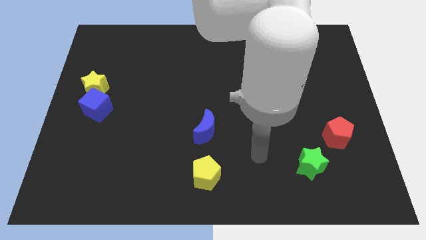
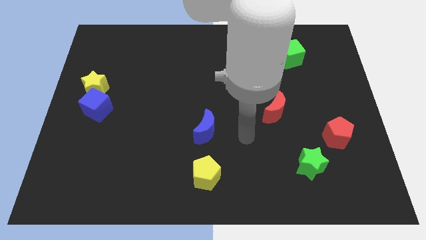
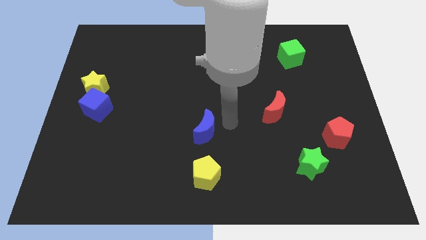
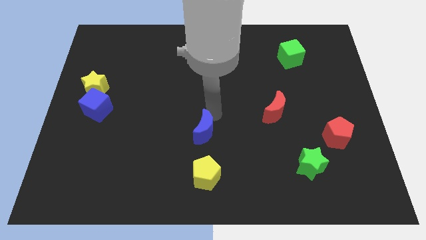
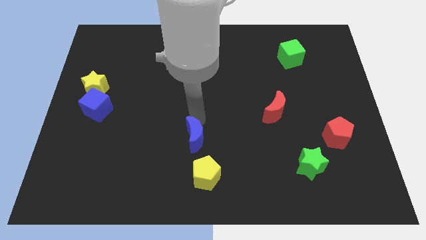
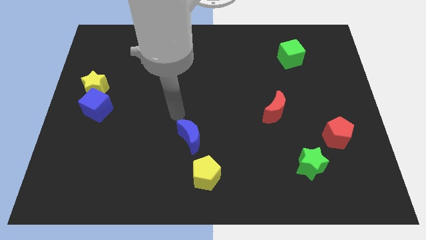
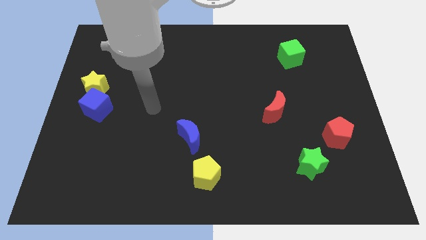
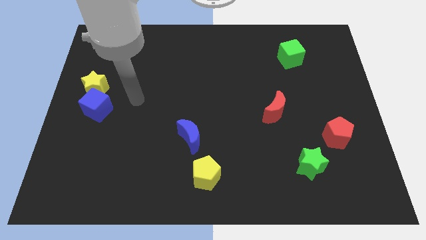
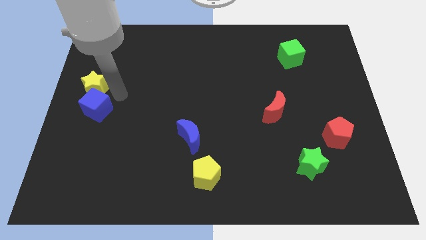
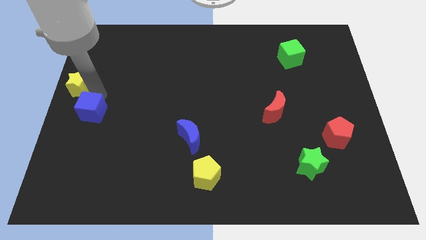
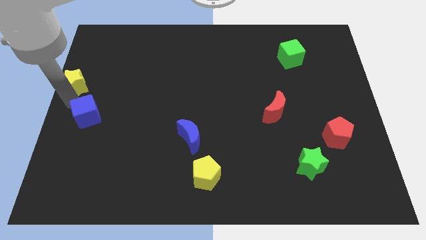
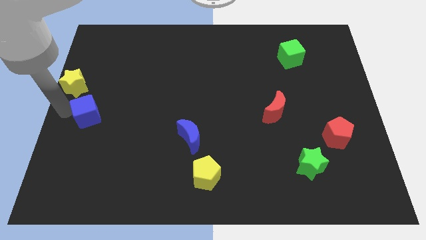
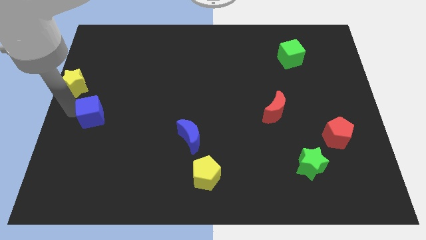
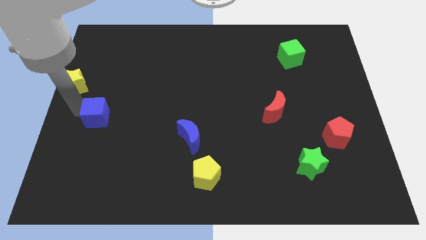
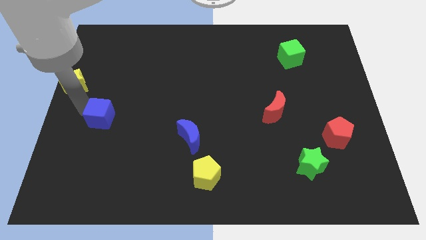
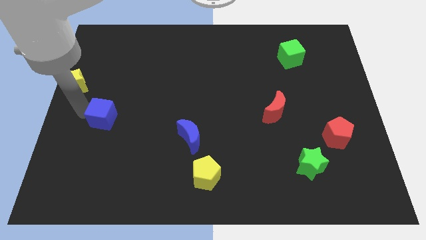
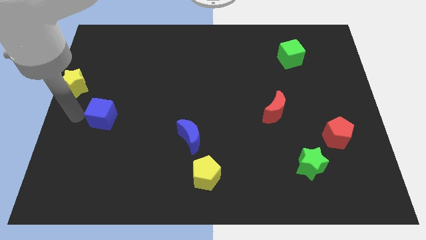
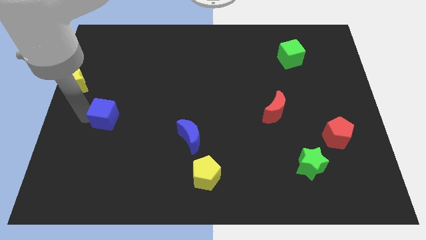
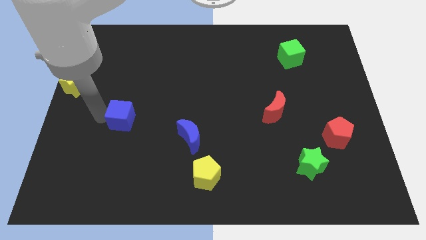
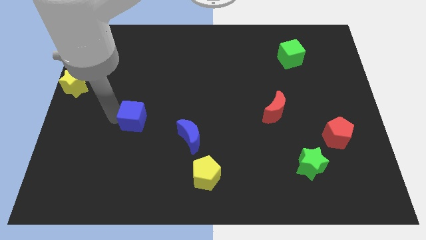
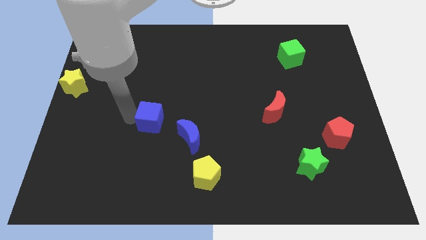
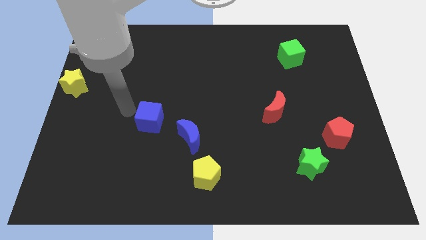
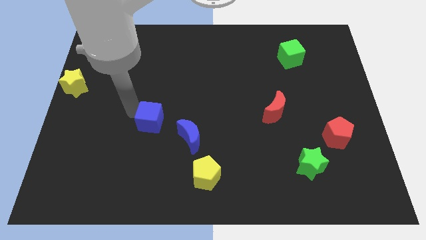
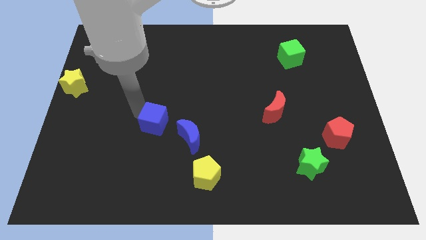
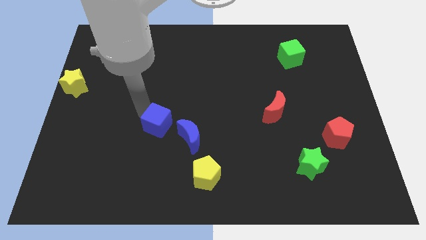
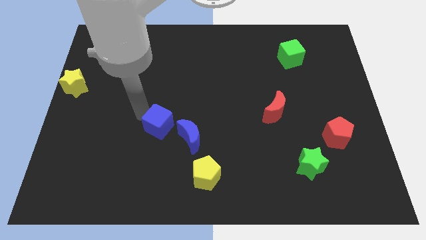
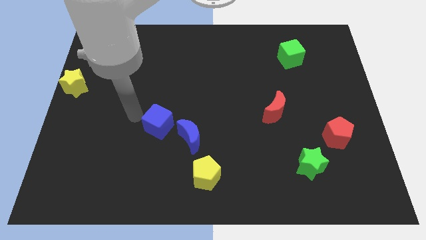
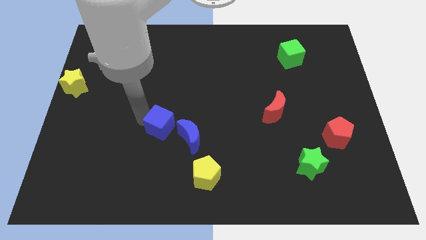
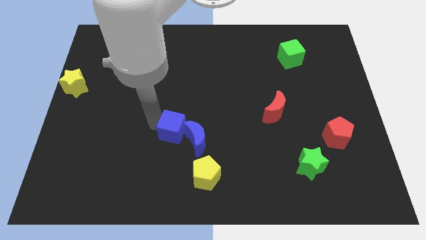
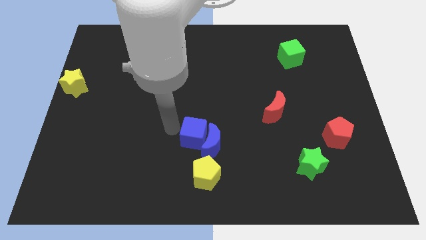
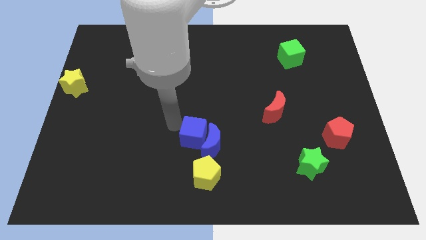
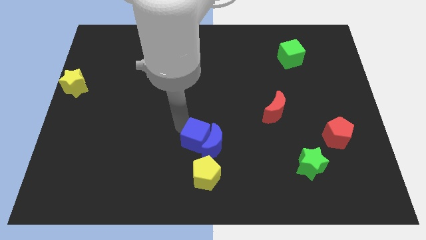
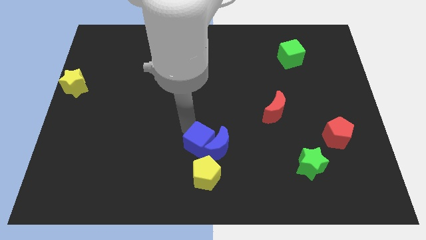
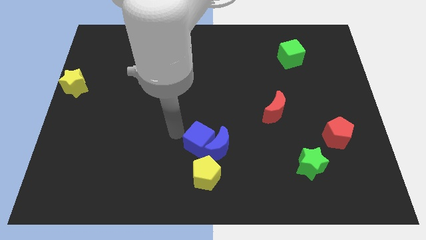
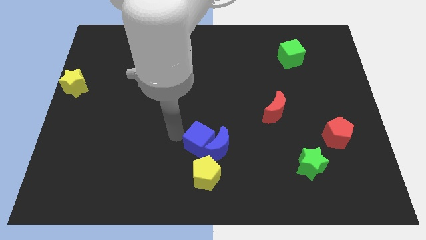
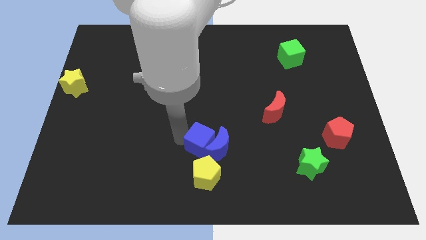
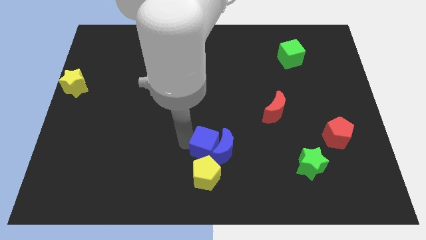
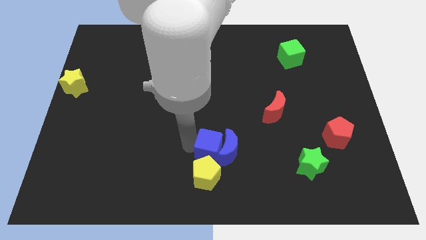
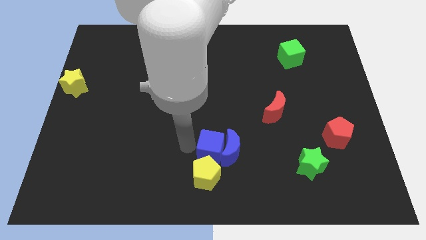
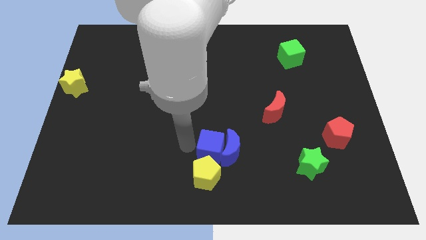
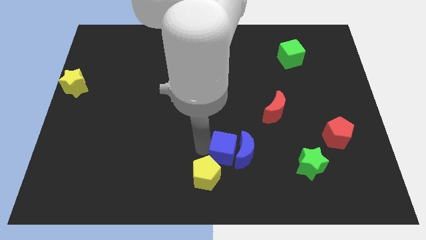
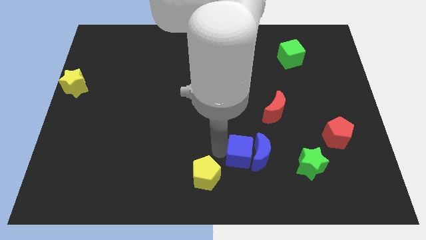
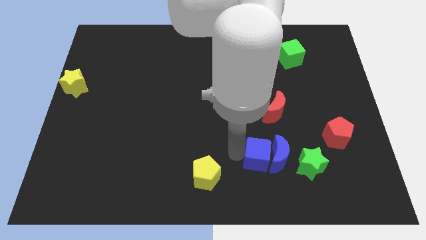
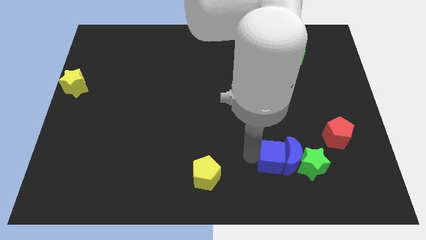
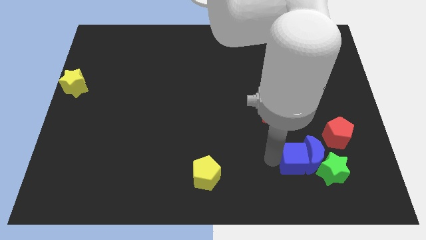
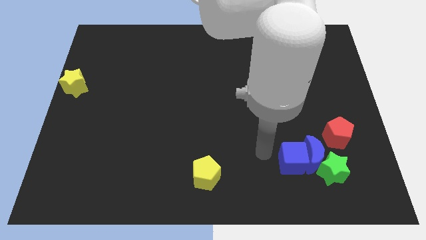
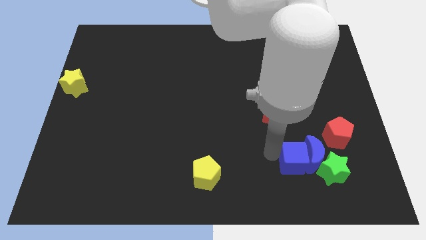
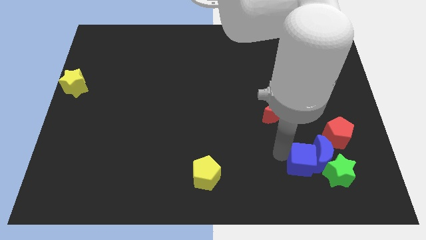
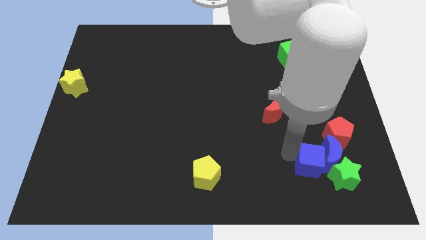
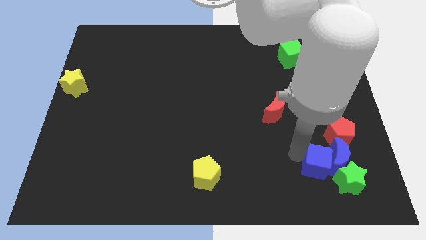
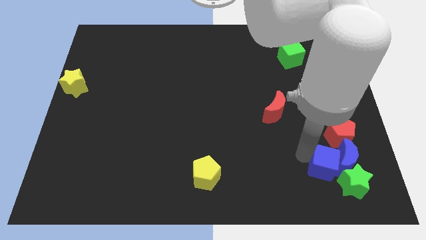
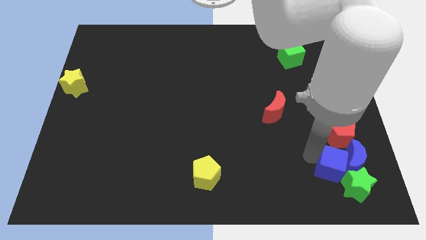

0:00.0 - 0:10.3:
push the blue cube to the green star

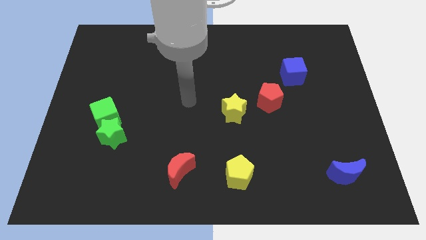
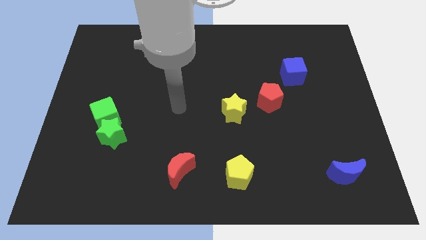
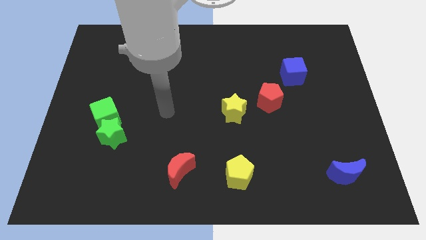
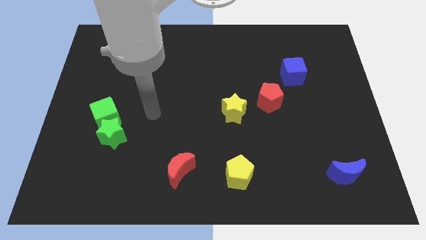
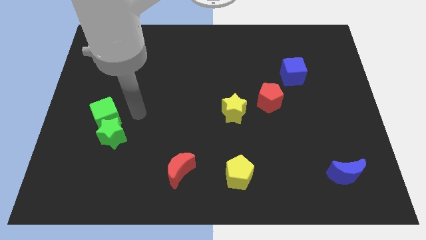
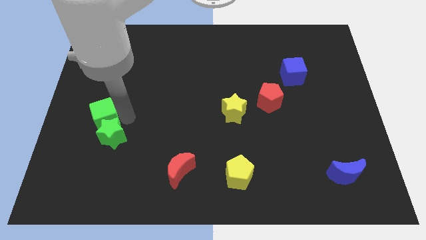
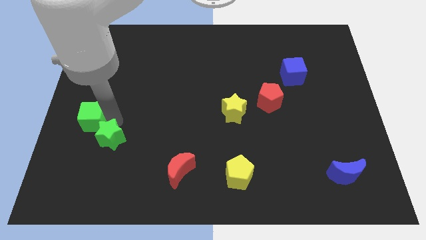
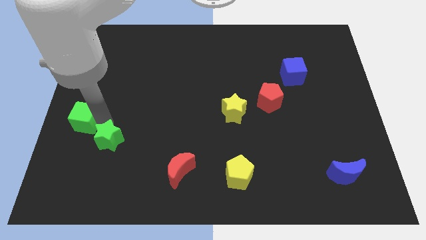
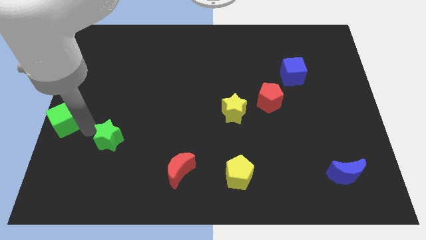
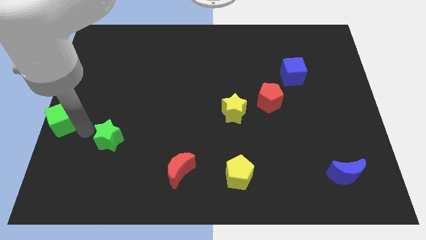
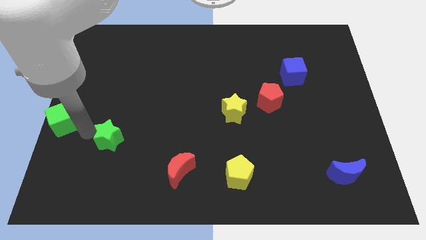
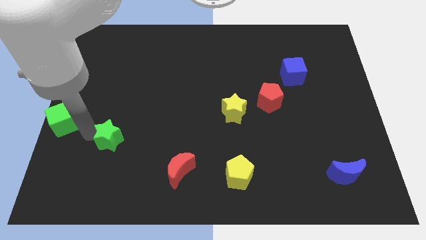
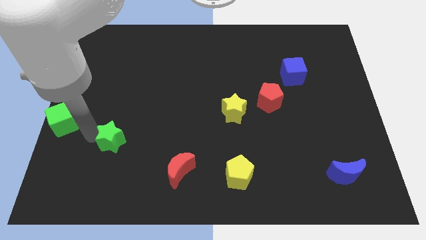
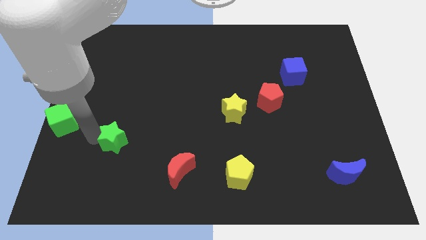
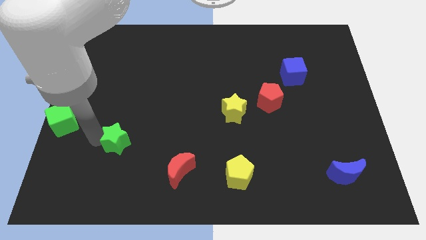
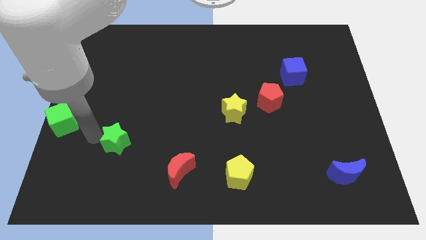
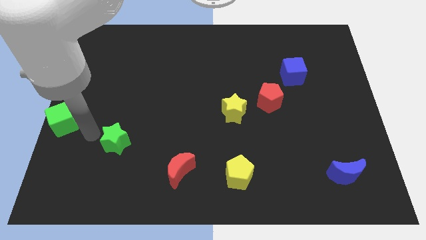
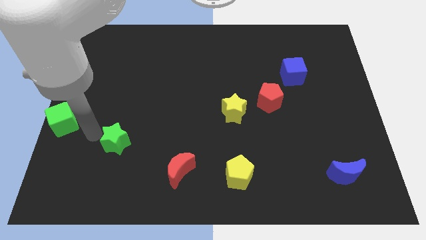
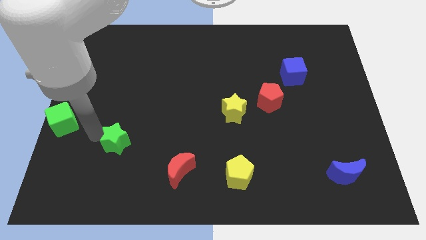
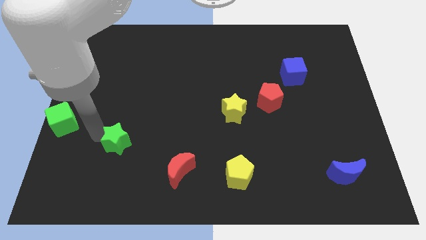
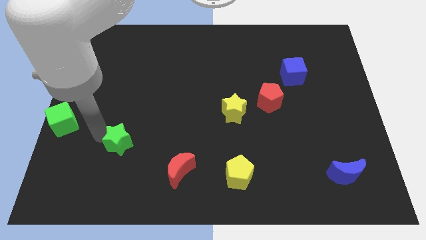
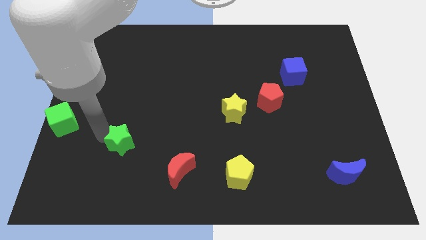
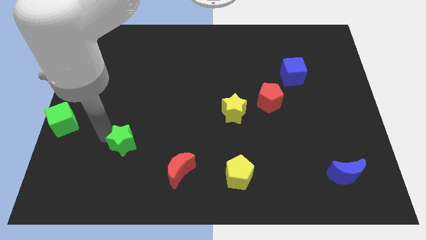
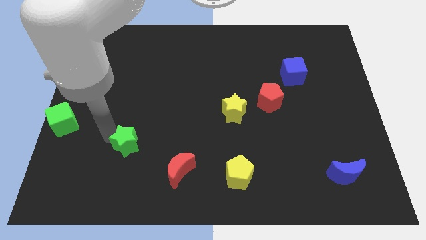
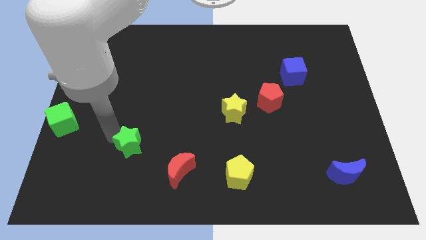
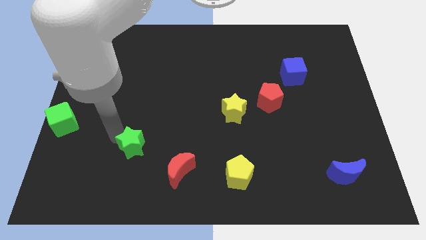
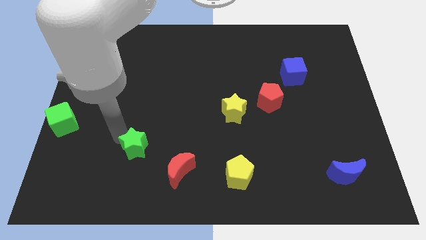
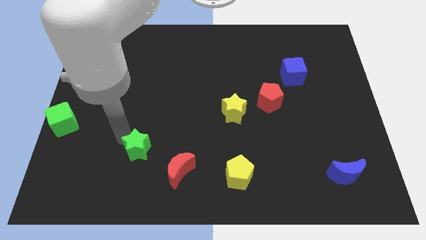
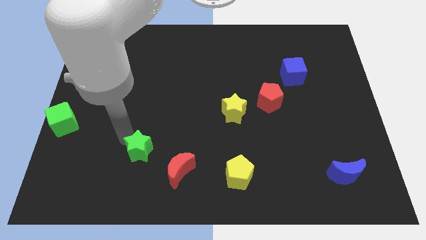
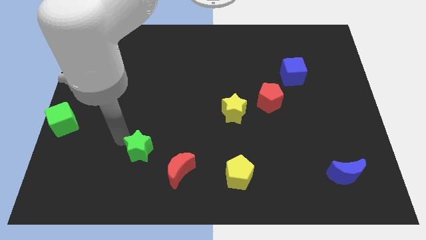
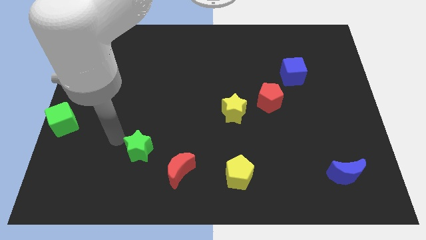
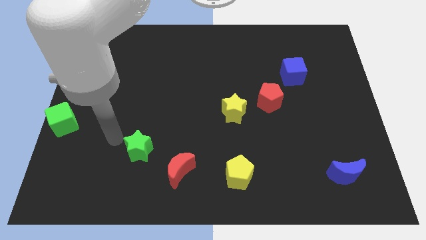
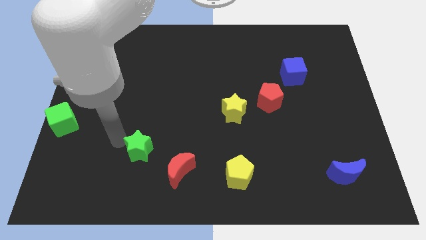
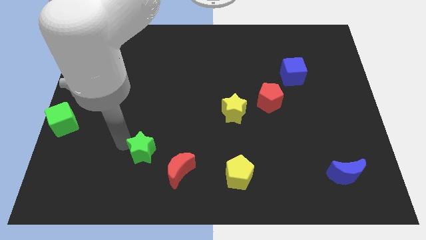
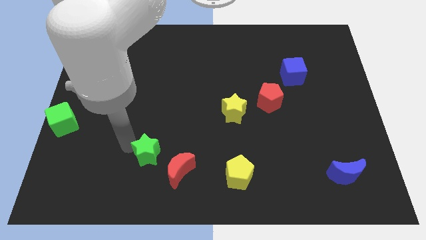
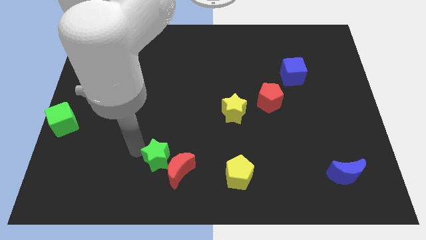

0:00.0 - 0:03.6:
push the green star close to the red moon
